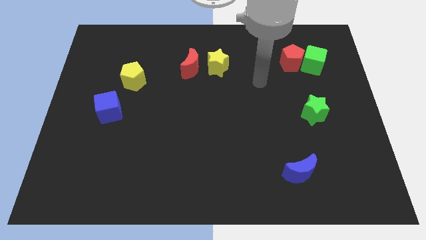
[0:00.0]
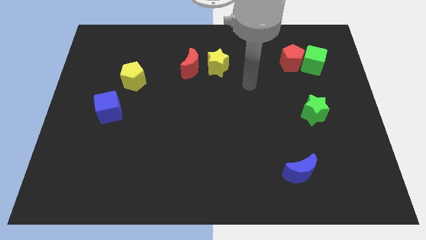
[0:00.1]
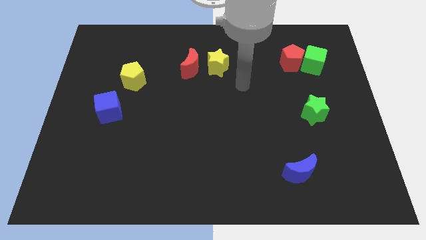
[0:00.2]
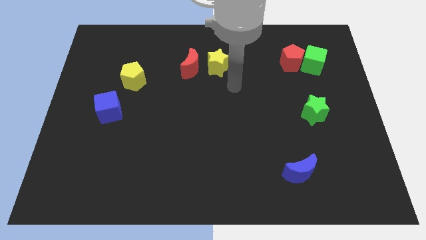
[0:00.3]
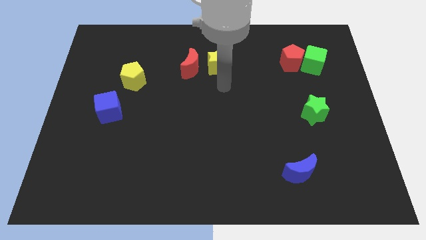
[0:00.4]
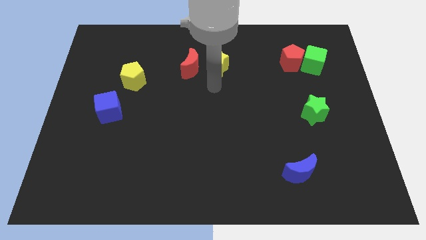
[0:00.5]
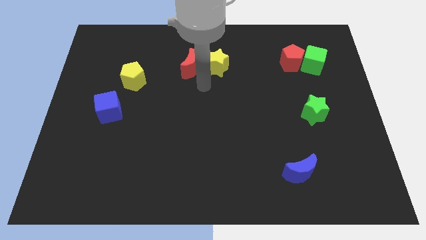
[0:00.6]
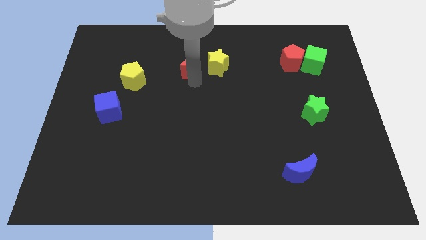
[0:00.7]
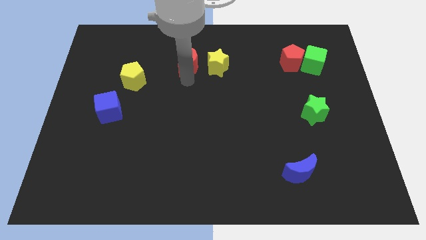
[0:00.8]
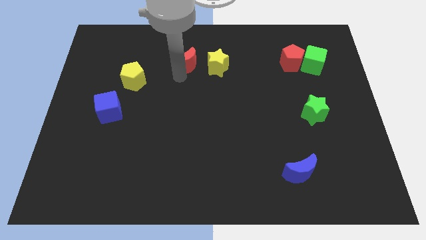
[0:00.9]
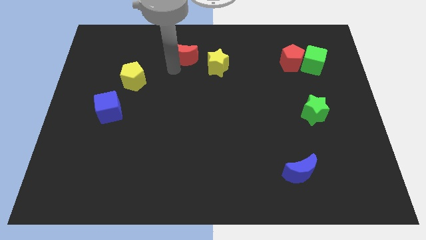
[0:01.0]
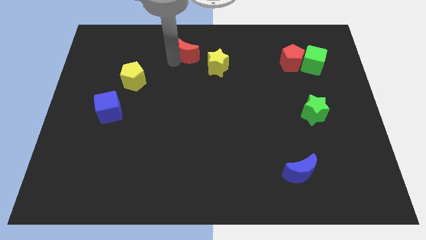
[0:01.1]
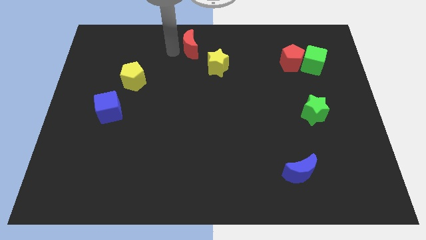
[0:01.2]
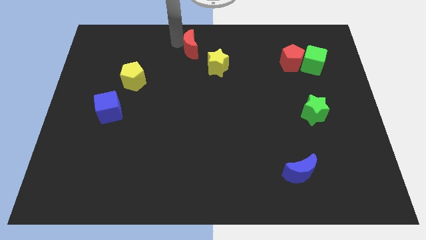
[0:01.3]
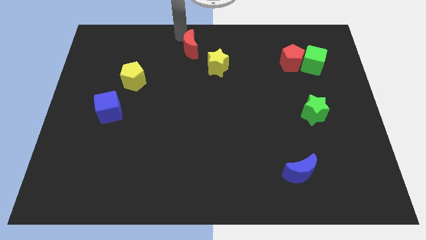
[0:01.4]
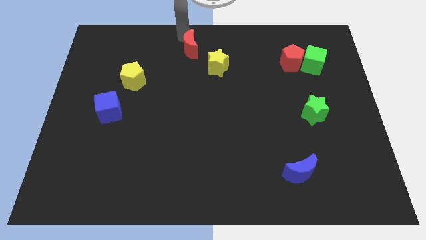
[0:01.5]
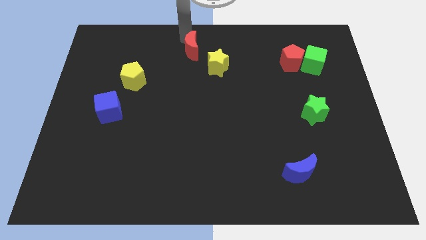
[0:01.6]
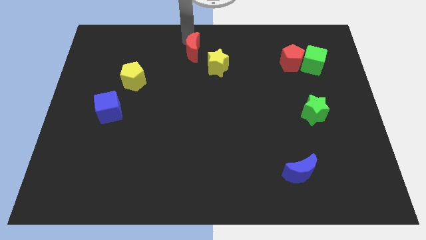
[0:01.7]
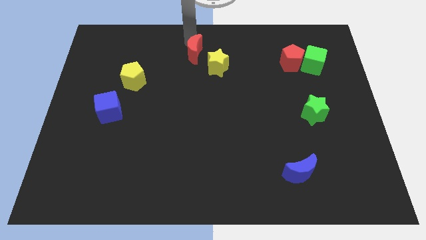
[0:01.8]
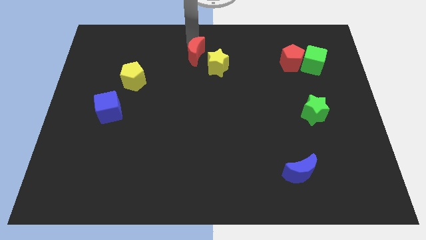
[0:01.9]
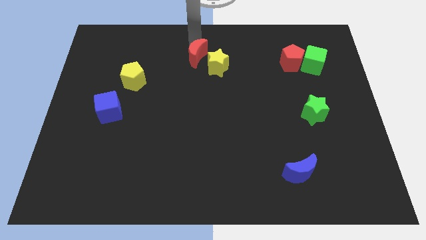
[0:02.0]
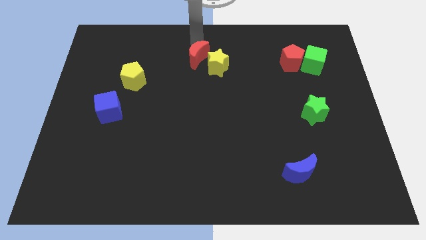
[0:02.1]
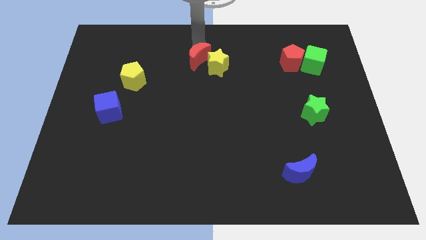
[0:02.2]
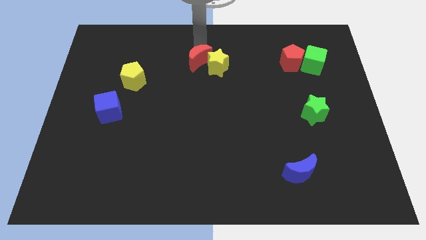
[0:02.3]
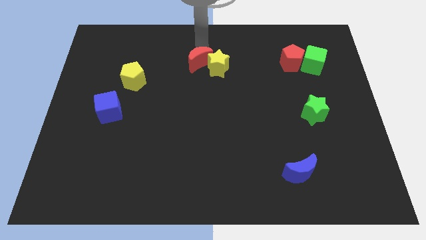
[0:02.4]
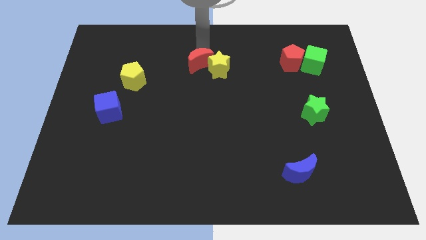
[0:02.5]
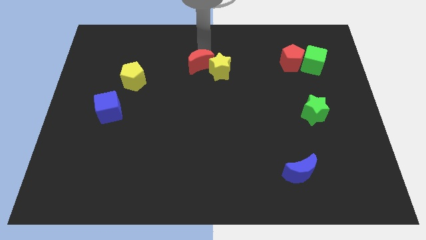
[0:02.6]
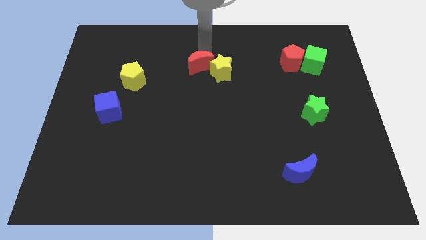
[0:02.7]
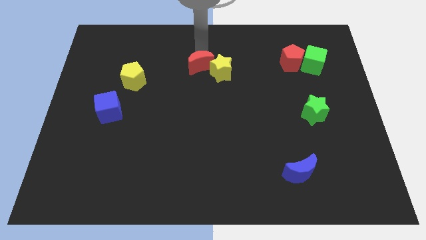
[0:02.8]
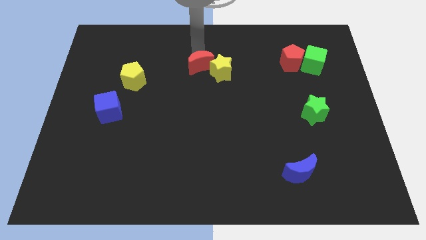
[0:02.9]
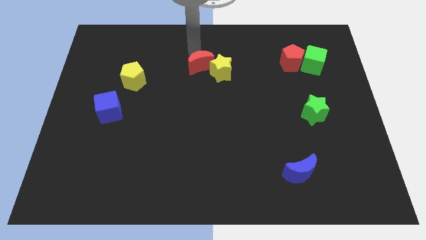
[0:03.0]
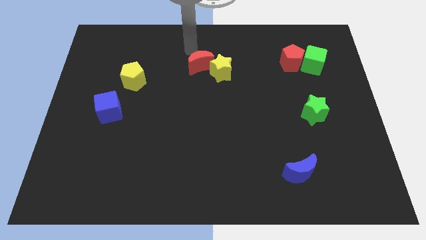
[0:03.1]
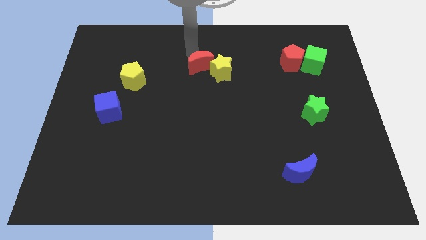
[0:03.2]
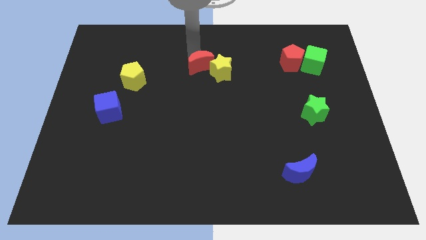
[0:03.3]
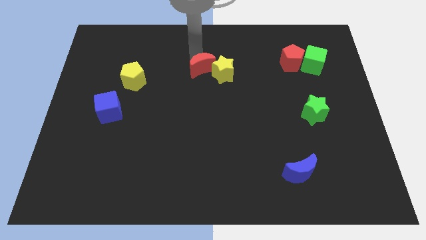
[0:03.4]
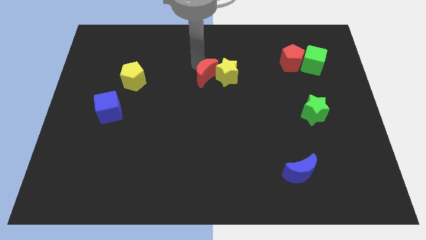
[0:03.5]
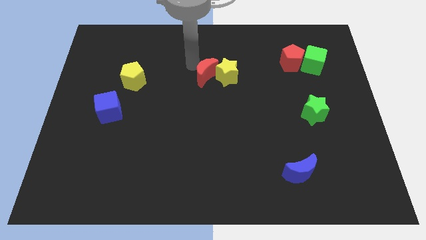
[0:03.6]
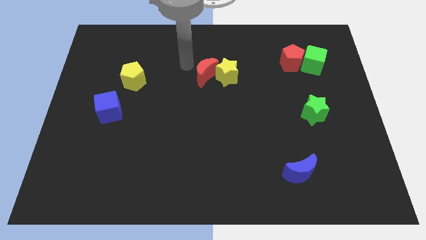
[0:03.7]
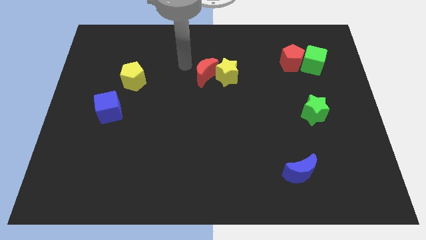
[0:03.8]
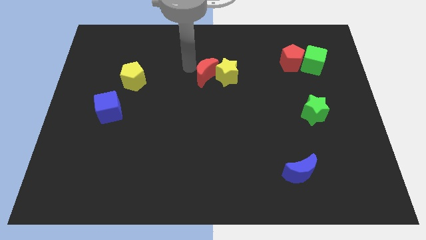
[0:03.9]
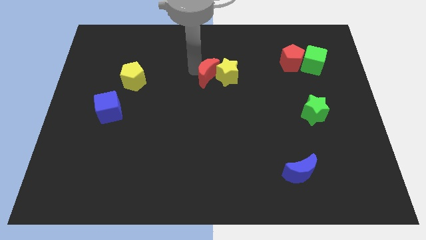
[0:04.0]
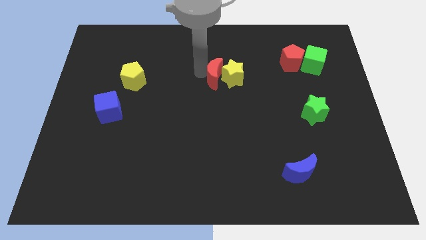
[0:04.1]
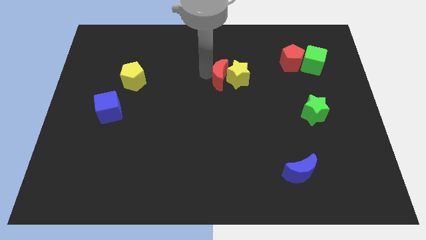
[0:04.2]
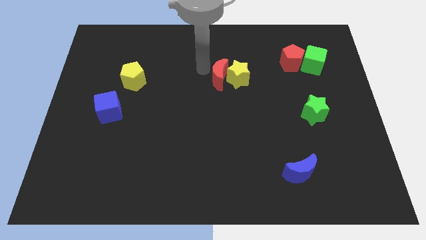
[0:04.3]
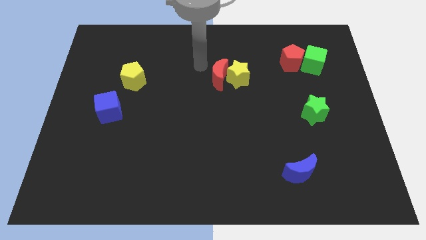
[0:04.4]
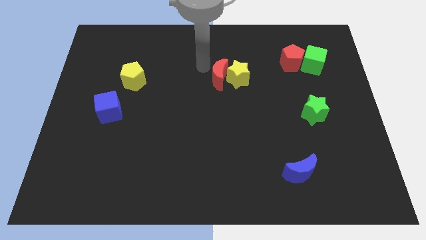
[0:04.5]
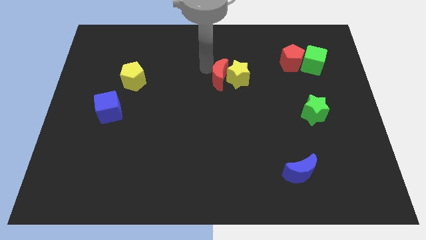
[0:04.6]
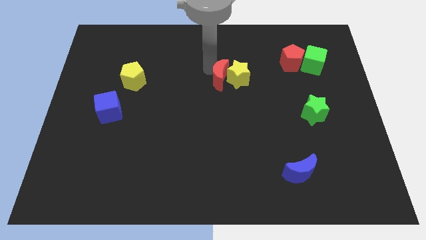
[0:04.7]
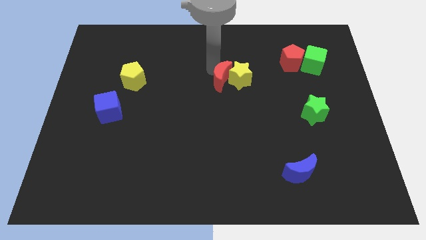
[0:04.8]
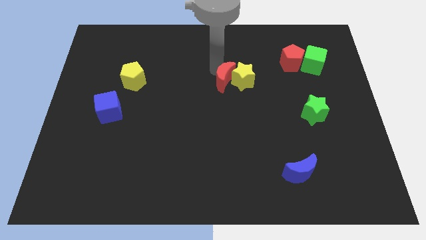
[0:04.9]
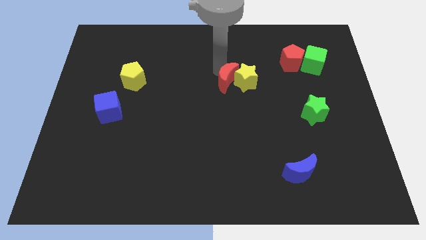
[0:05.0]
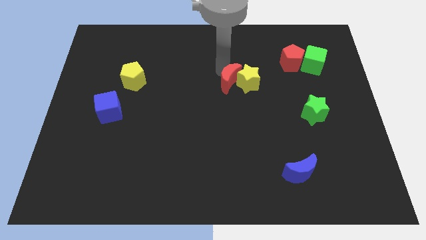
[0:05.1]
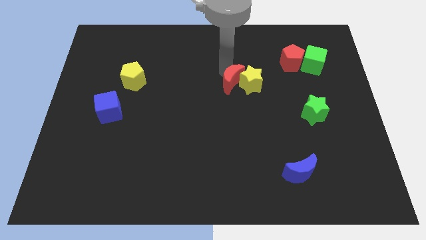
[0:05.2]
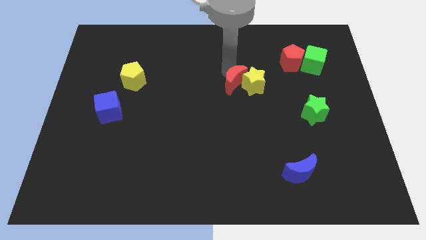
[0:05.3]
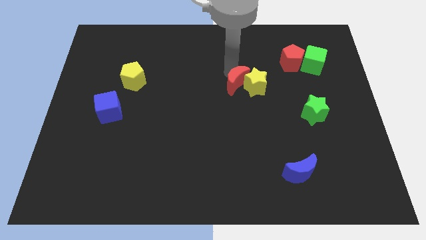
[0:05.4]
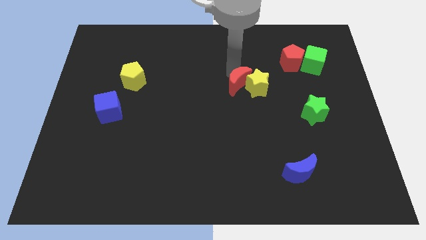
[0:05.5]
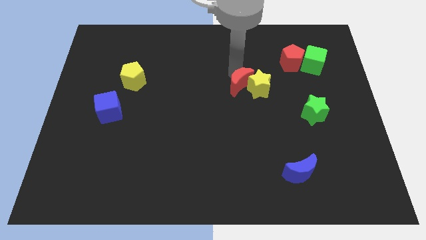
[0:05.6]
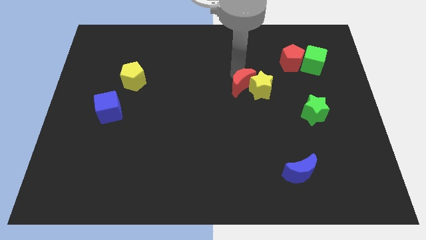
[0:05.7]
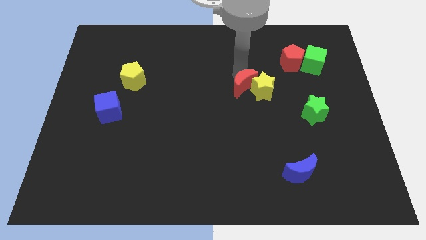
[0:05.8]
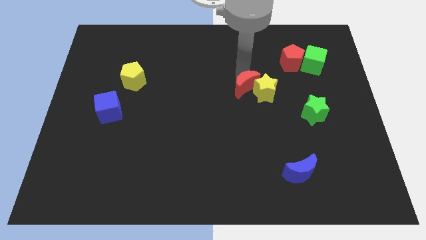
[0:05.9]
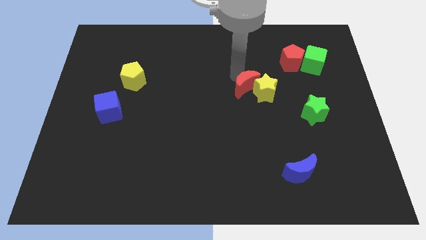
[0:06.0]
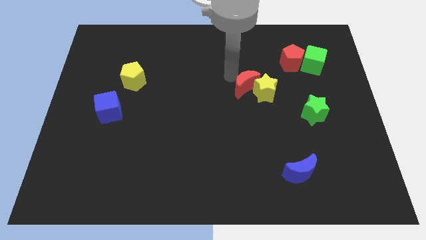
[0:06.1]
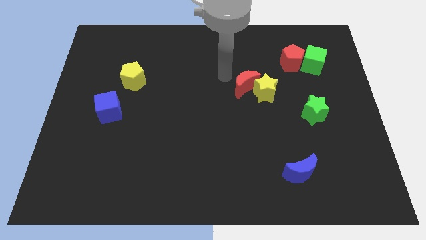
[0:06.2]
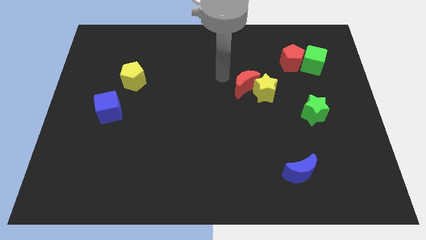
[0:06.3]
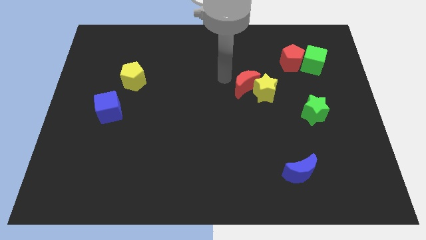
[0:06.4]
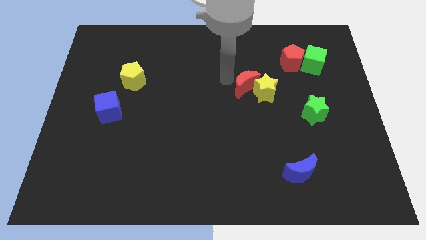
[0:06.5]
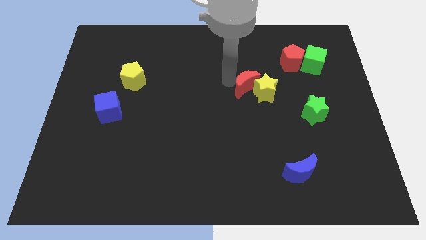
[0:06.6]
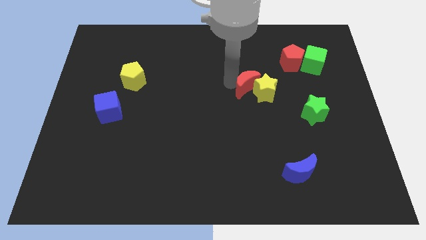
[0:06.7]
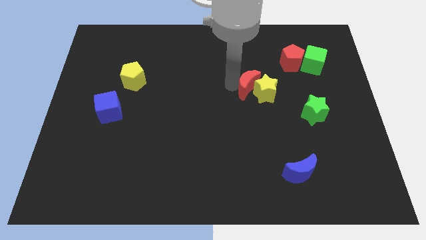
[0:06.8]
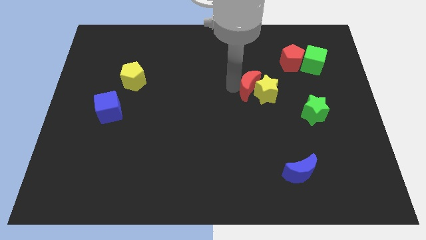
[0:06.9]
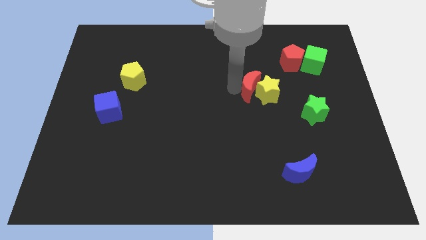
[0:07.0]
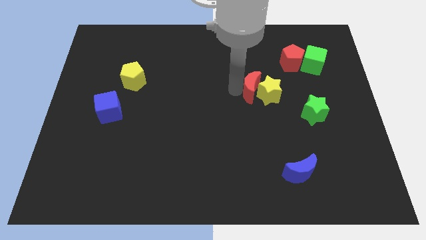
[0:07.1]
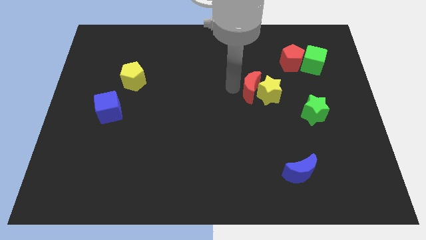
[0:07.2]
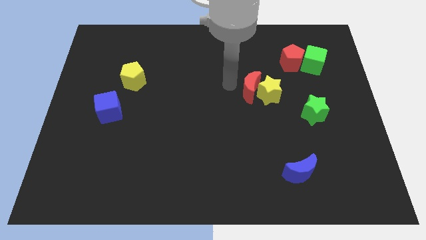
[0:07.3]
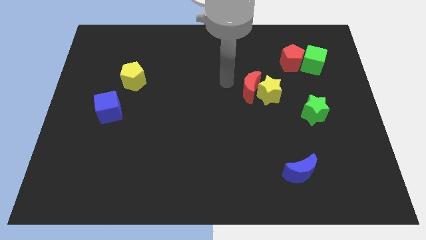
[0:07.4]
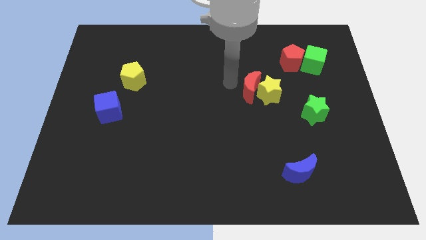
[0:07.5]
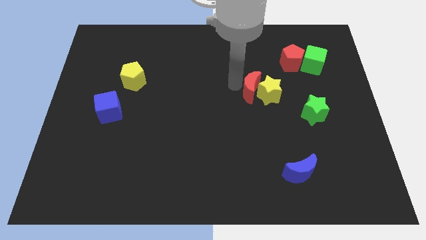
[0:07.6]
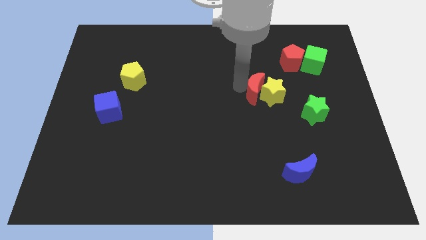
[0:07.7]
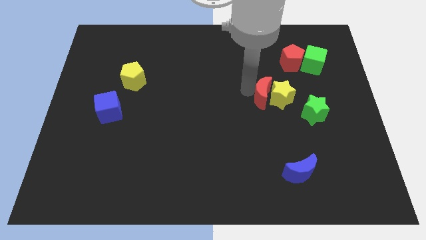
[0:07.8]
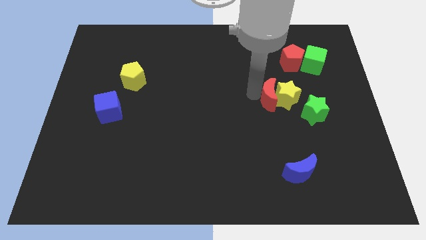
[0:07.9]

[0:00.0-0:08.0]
move the red moon to the top left of the green star

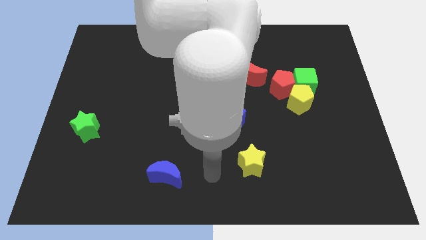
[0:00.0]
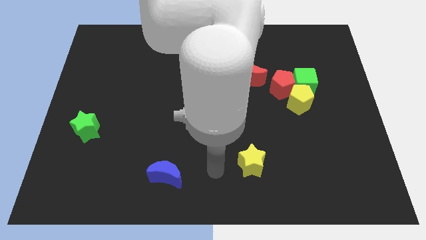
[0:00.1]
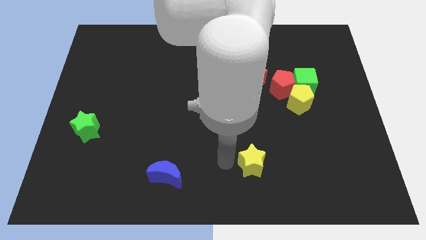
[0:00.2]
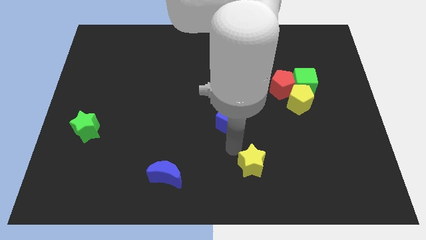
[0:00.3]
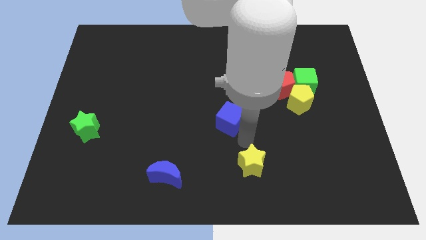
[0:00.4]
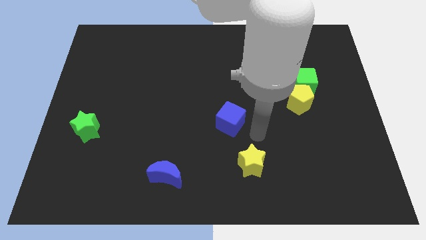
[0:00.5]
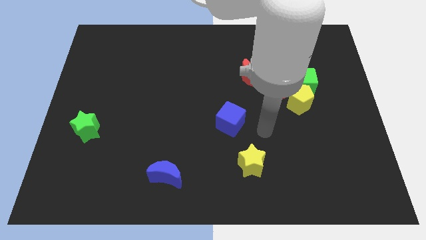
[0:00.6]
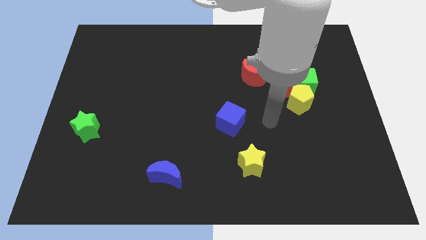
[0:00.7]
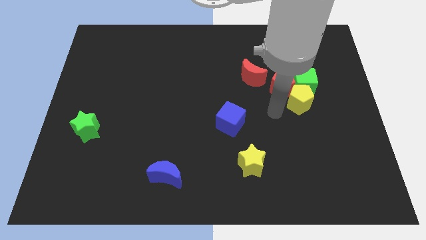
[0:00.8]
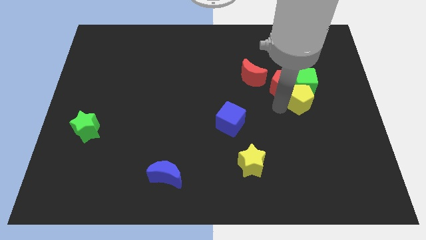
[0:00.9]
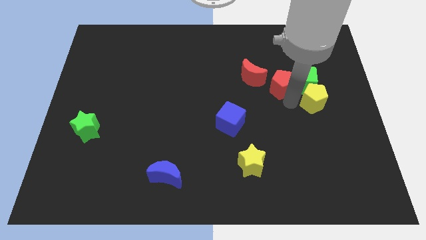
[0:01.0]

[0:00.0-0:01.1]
move the green cube diagonally up and to the left of the yellow pentagon
